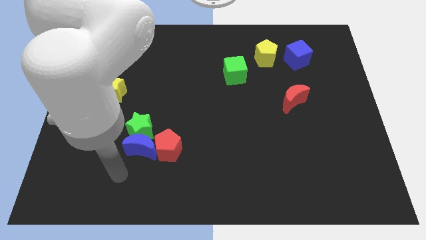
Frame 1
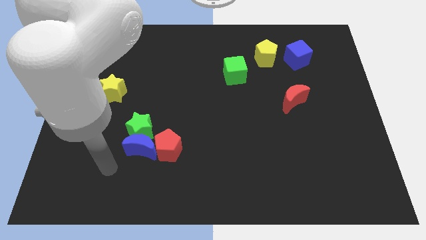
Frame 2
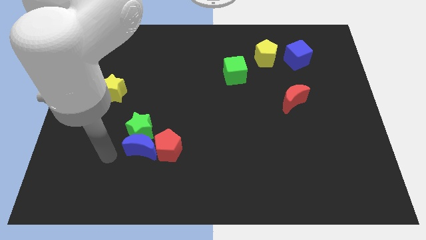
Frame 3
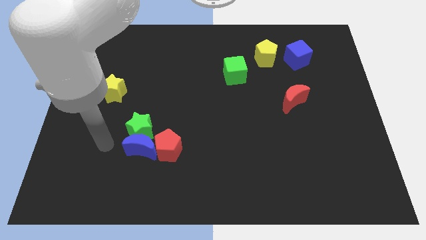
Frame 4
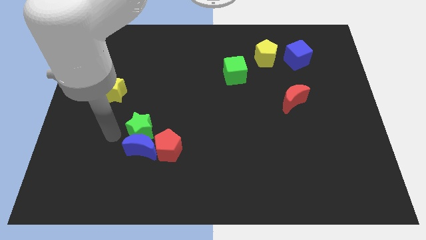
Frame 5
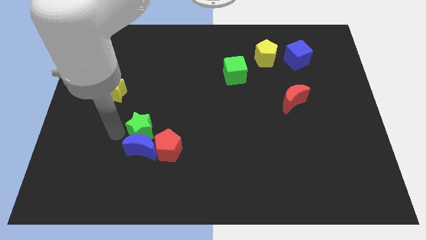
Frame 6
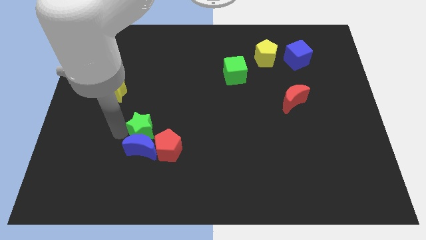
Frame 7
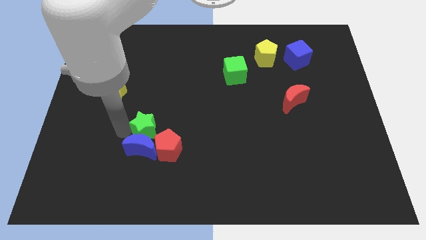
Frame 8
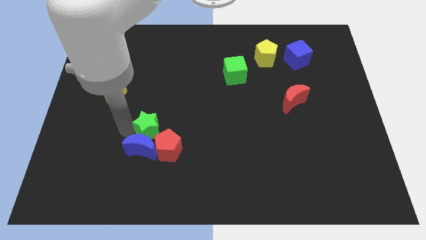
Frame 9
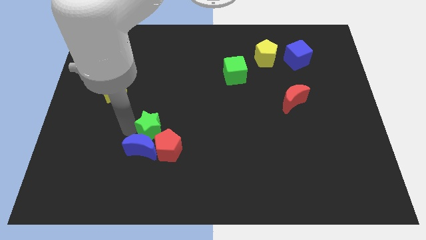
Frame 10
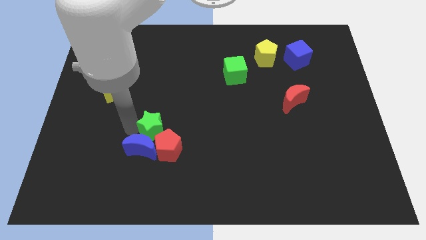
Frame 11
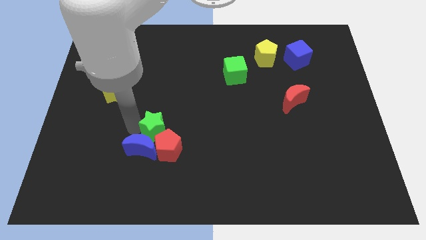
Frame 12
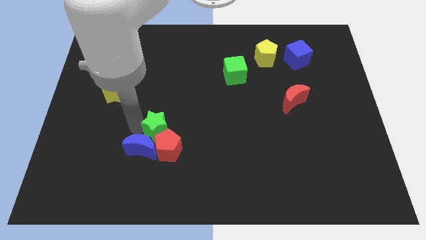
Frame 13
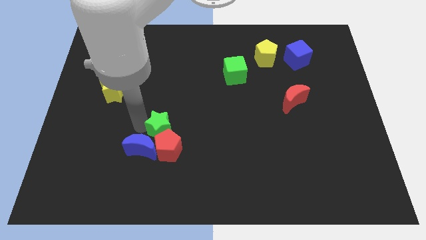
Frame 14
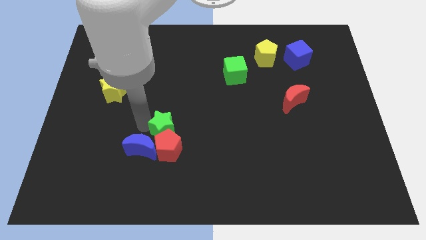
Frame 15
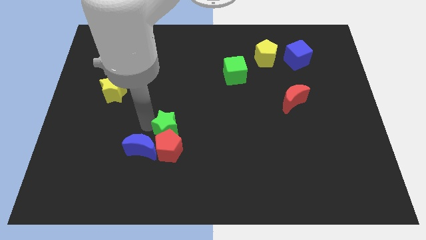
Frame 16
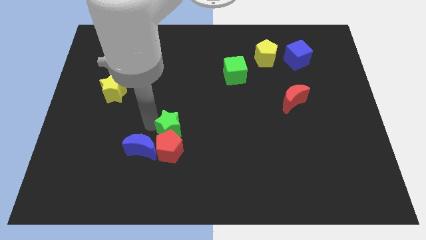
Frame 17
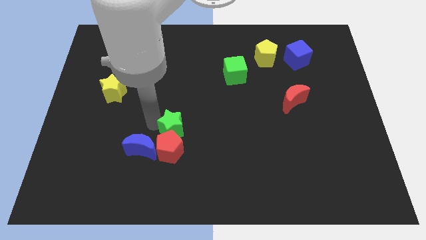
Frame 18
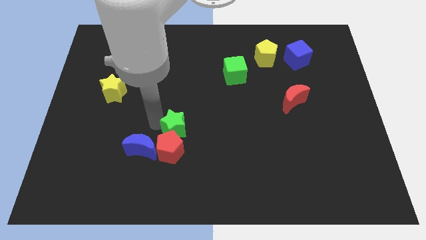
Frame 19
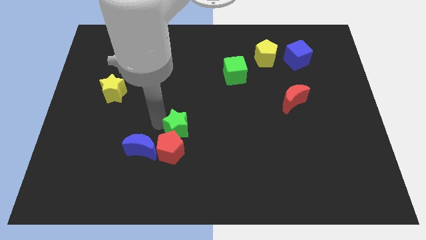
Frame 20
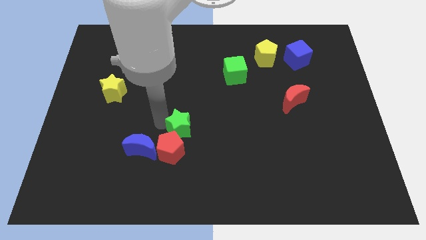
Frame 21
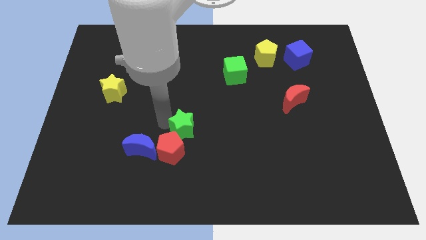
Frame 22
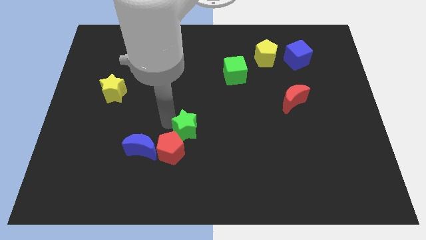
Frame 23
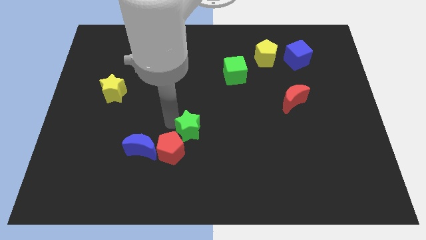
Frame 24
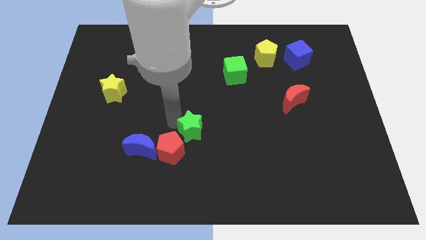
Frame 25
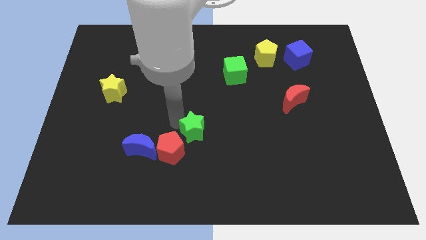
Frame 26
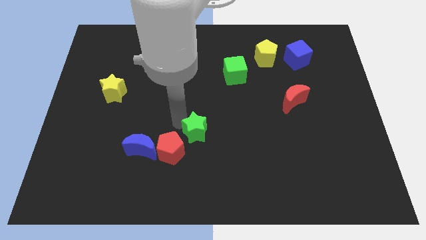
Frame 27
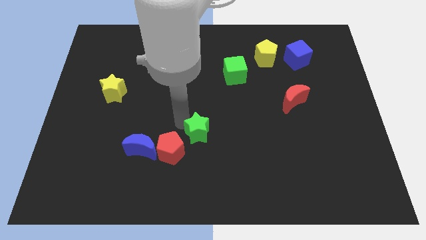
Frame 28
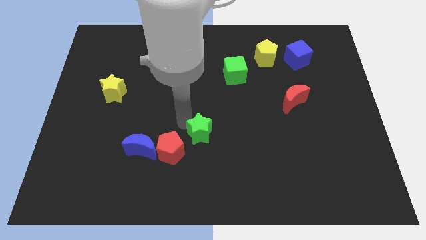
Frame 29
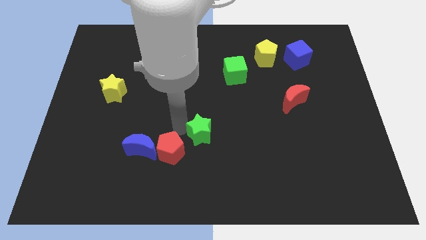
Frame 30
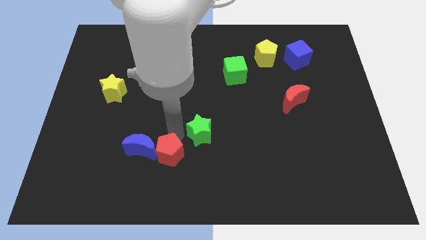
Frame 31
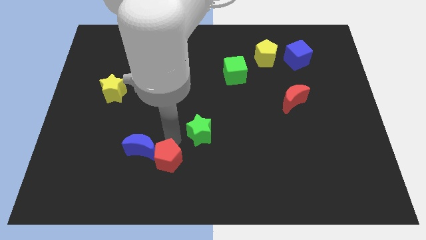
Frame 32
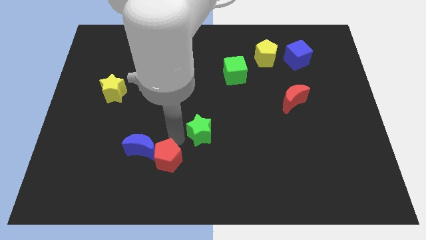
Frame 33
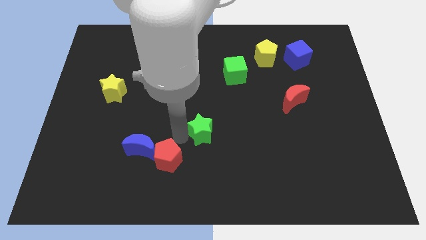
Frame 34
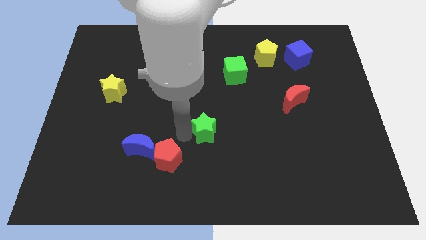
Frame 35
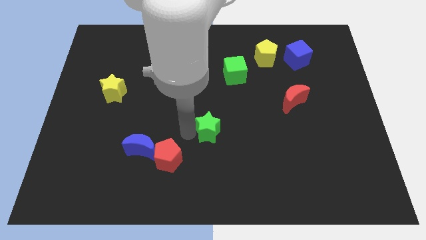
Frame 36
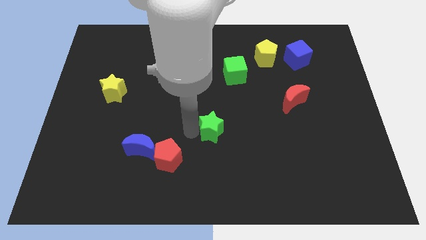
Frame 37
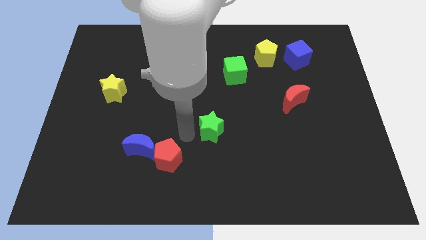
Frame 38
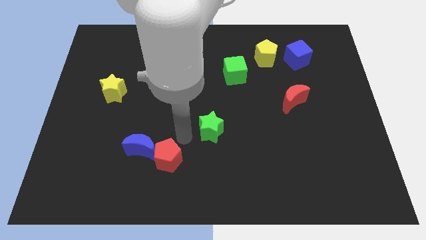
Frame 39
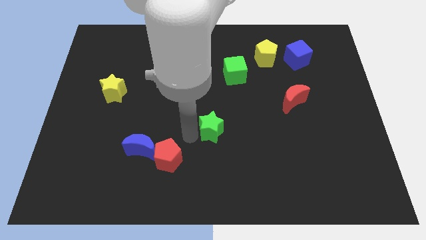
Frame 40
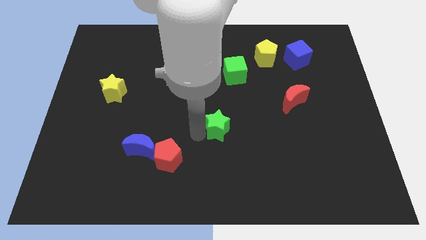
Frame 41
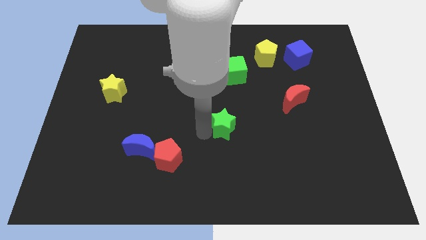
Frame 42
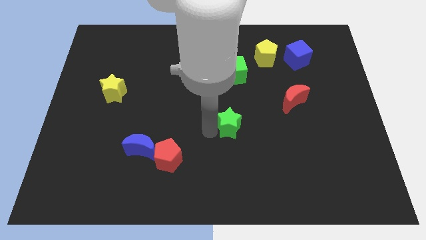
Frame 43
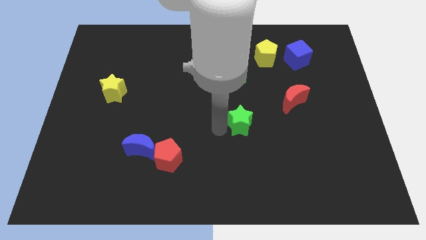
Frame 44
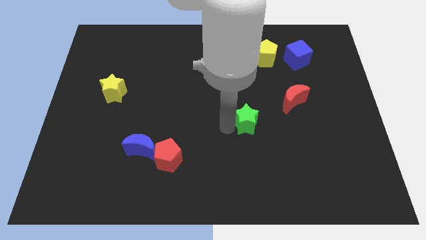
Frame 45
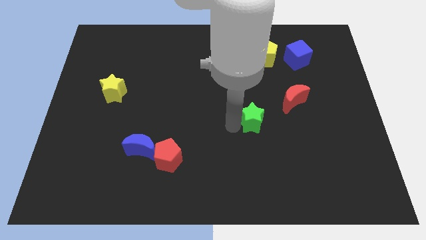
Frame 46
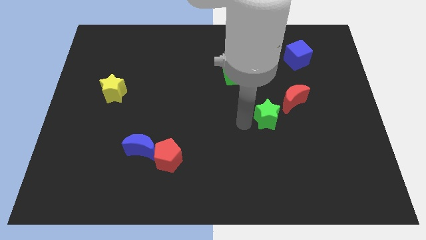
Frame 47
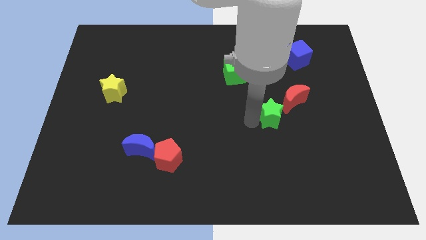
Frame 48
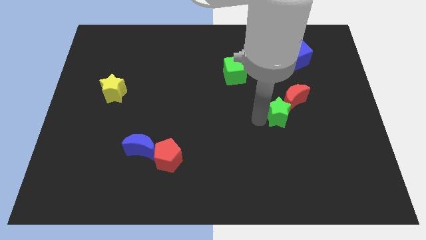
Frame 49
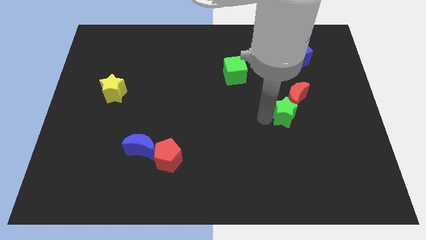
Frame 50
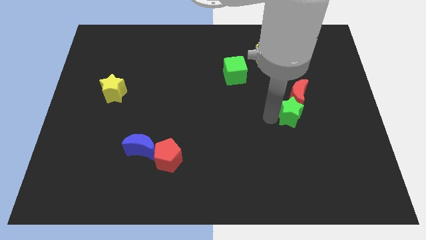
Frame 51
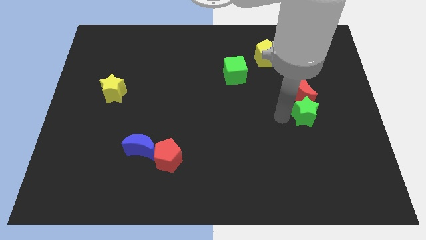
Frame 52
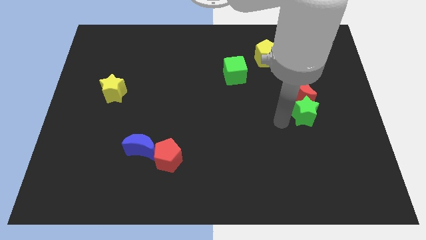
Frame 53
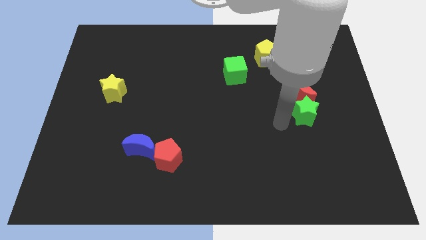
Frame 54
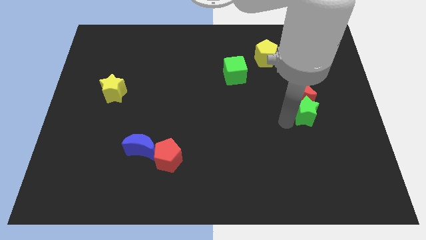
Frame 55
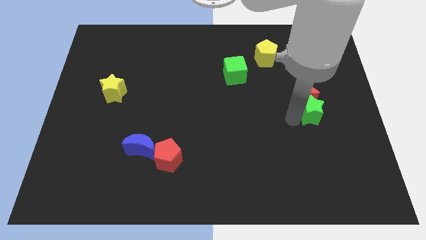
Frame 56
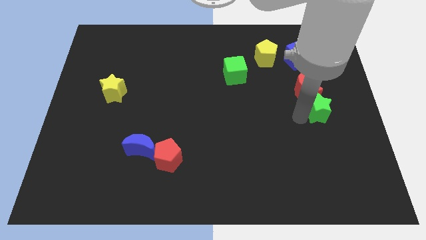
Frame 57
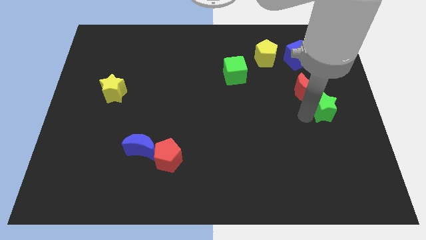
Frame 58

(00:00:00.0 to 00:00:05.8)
move the green star to the center right

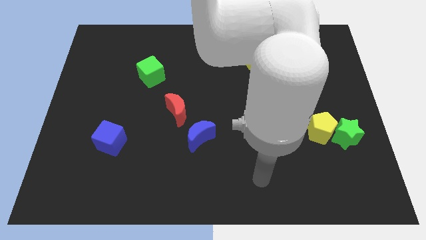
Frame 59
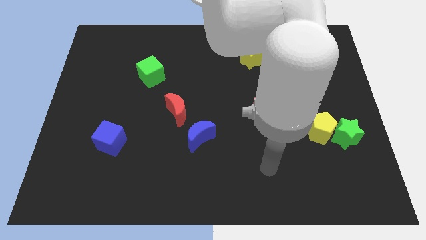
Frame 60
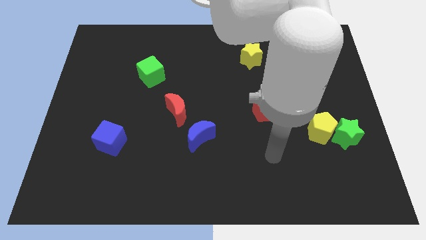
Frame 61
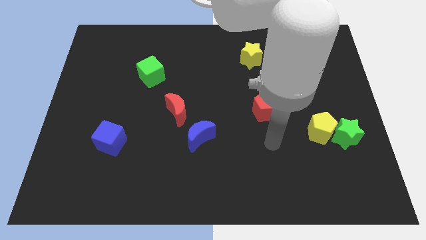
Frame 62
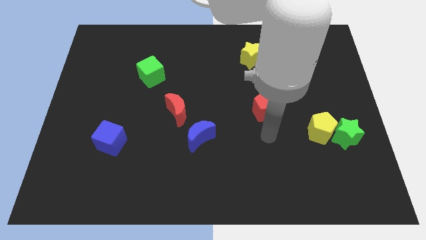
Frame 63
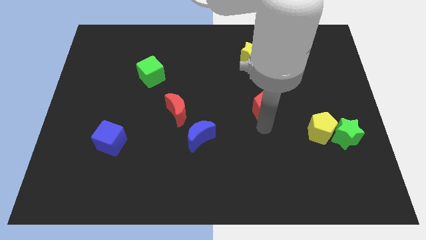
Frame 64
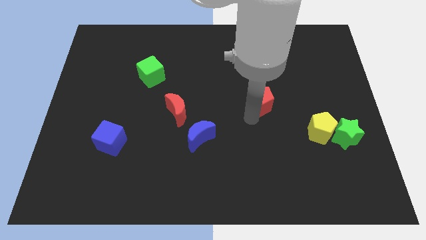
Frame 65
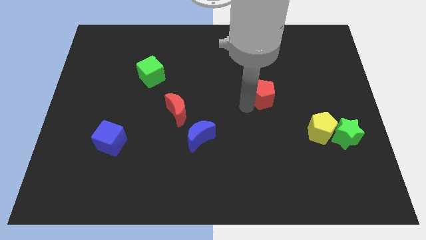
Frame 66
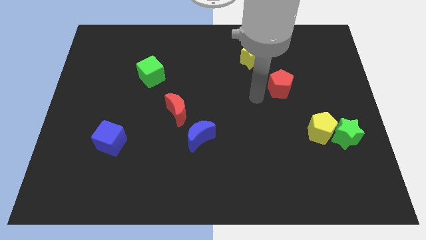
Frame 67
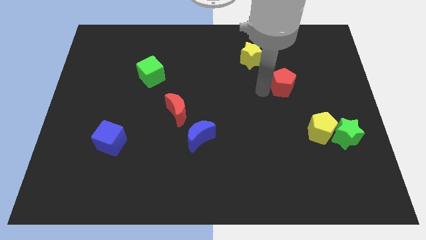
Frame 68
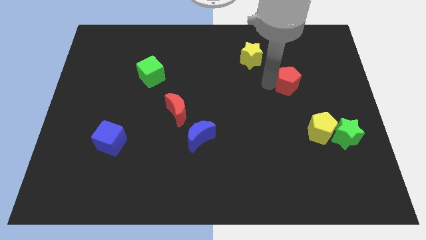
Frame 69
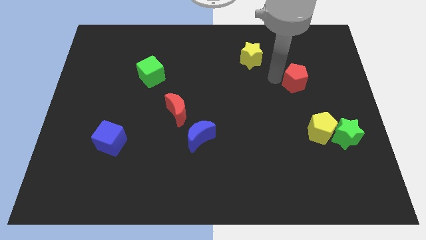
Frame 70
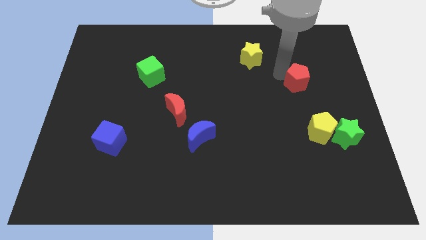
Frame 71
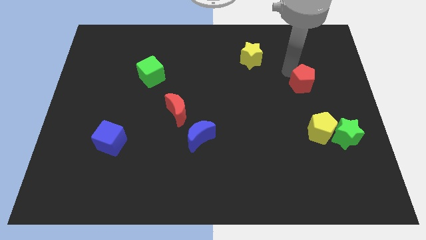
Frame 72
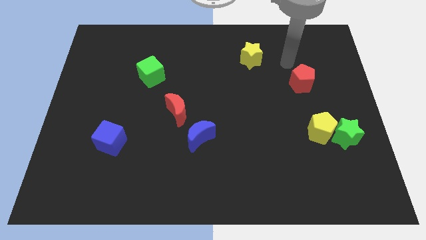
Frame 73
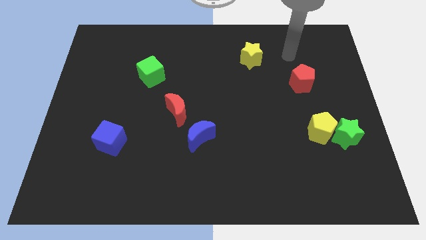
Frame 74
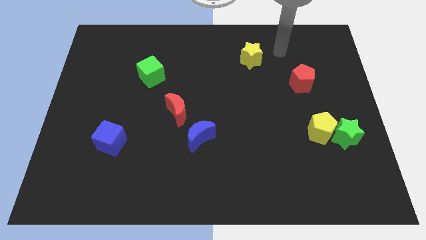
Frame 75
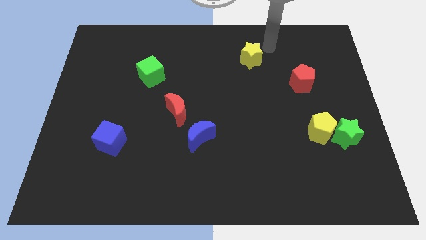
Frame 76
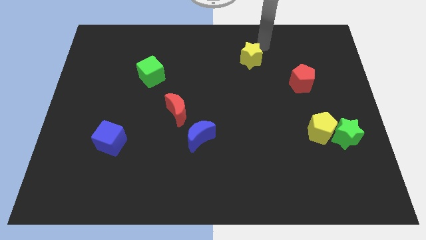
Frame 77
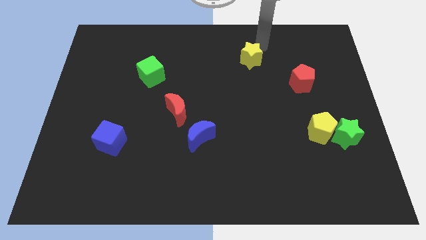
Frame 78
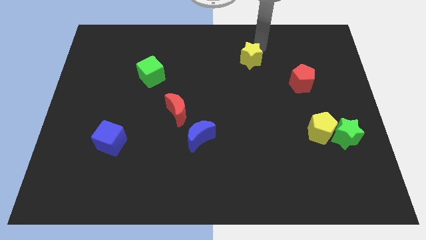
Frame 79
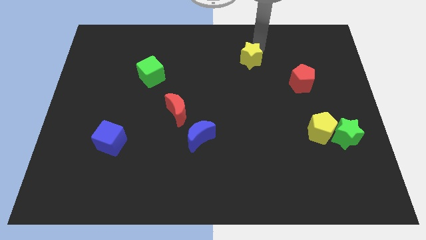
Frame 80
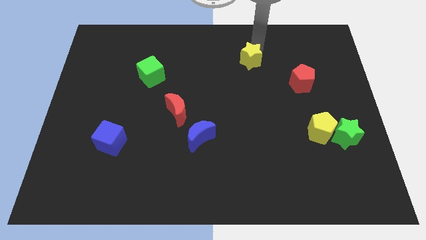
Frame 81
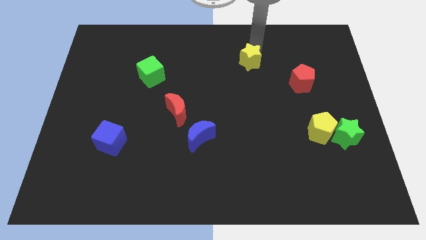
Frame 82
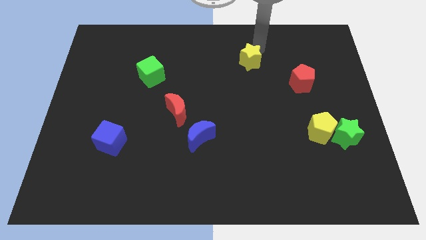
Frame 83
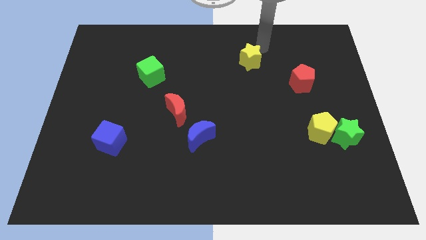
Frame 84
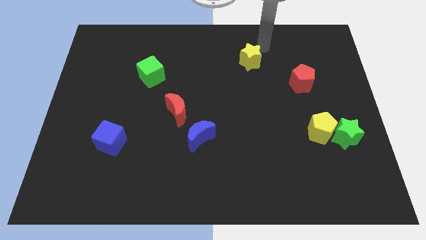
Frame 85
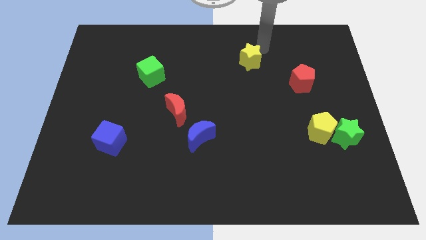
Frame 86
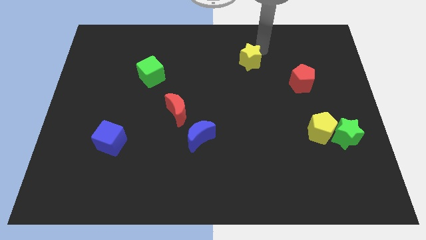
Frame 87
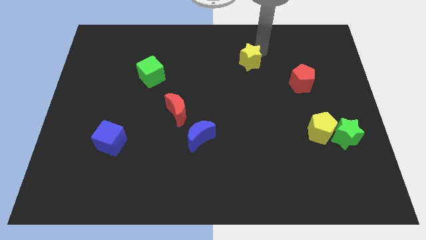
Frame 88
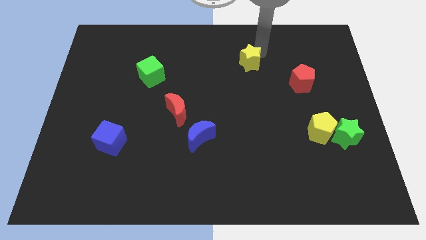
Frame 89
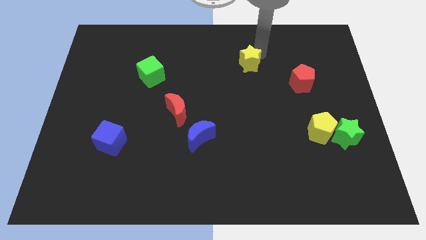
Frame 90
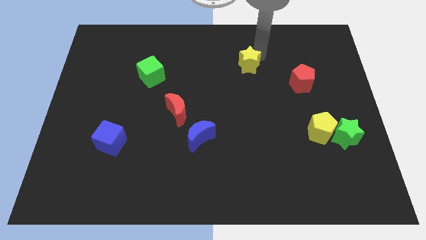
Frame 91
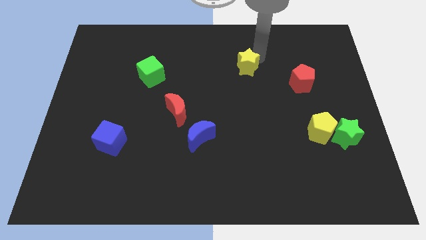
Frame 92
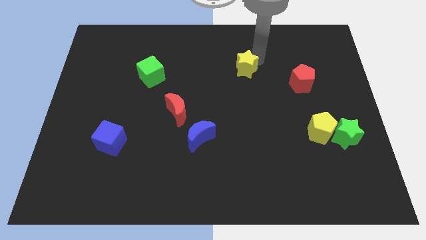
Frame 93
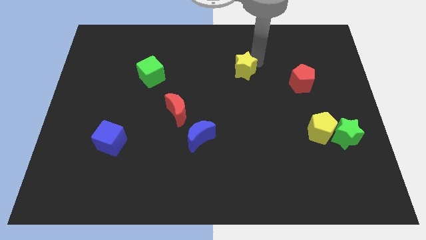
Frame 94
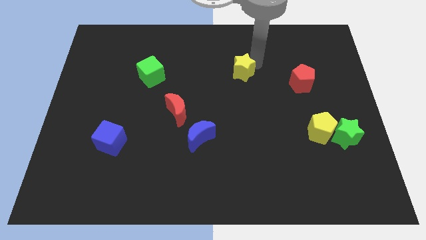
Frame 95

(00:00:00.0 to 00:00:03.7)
push the yellow star to the center of the board
